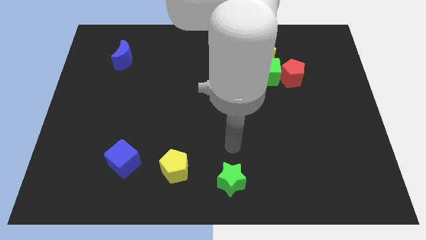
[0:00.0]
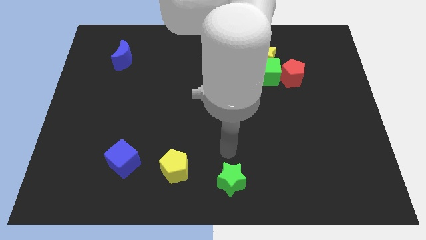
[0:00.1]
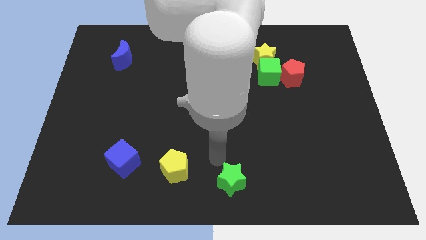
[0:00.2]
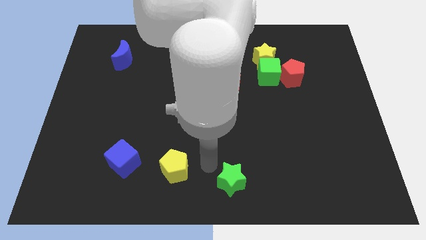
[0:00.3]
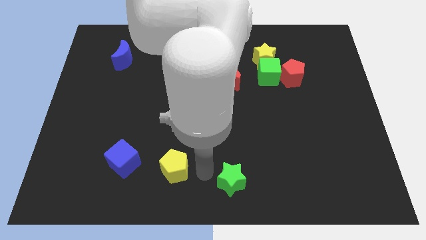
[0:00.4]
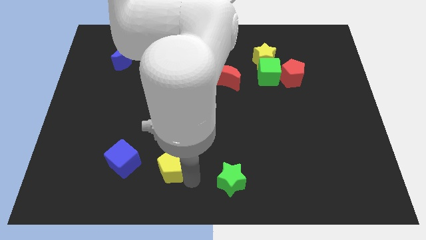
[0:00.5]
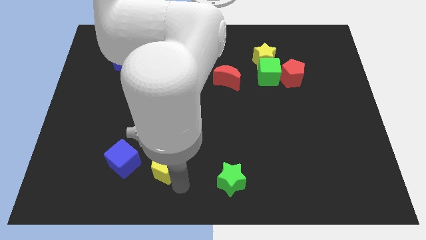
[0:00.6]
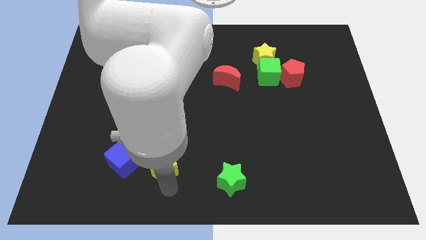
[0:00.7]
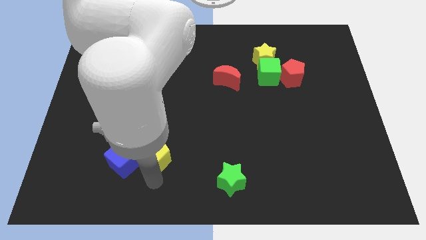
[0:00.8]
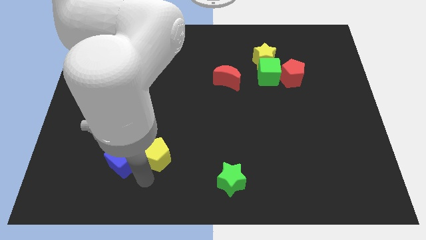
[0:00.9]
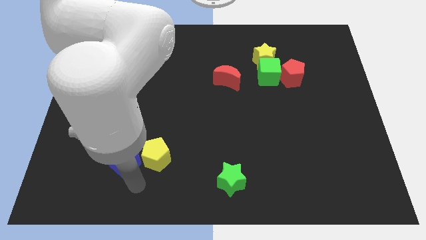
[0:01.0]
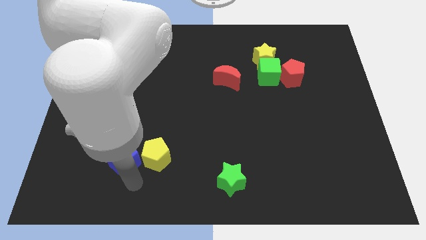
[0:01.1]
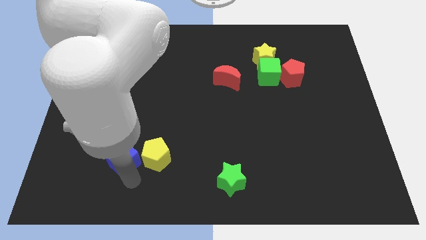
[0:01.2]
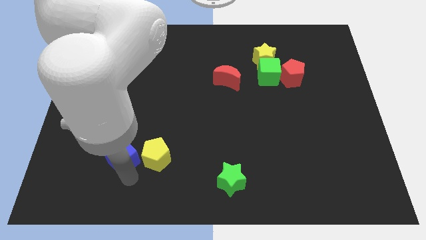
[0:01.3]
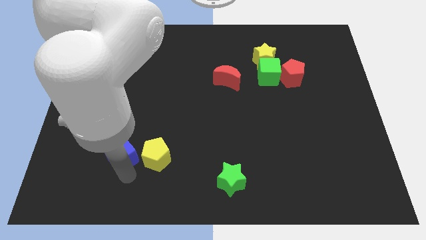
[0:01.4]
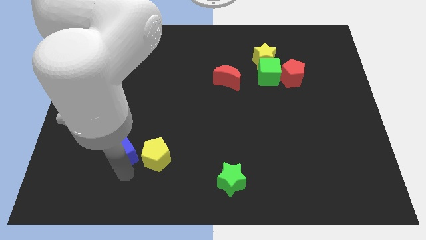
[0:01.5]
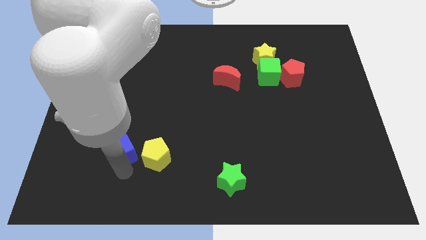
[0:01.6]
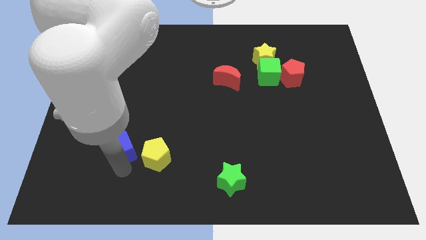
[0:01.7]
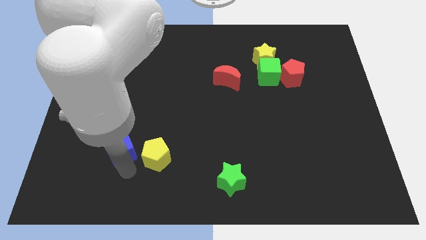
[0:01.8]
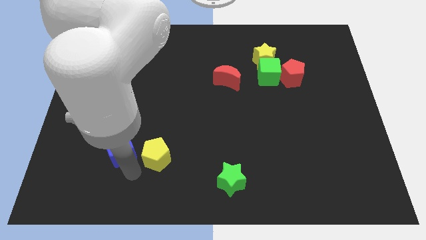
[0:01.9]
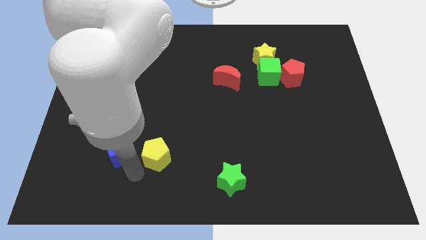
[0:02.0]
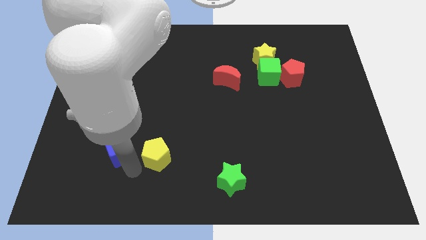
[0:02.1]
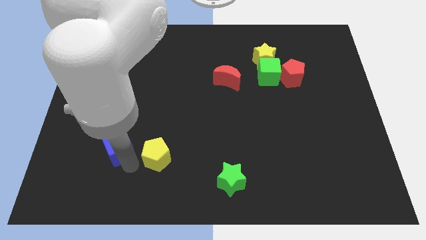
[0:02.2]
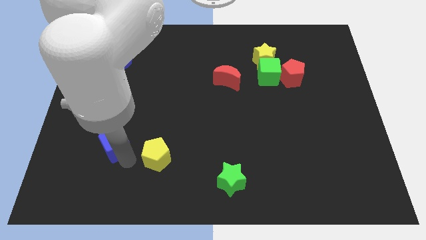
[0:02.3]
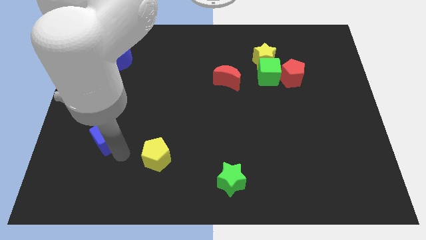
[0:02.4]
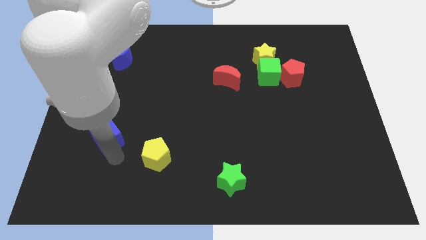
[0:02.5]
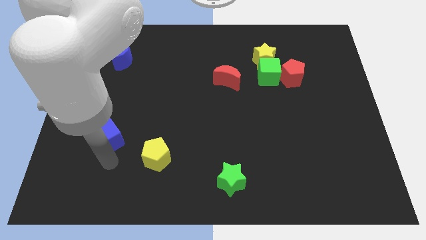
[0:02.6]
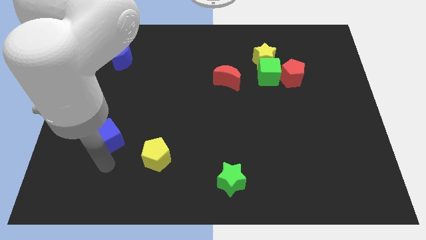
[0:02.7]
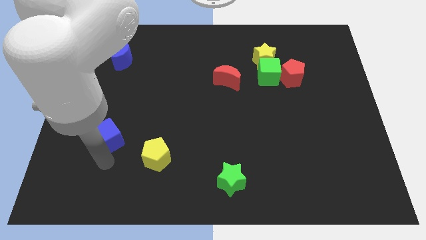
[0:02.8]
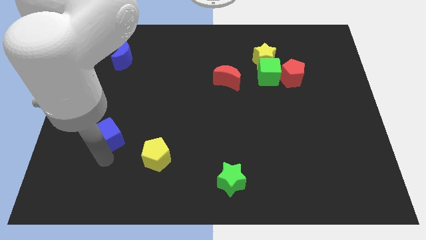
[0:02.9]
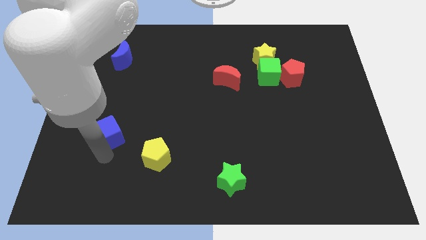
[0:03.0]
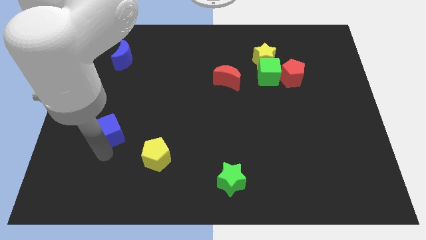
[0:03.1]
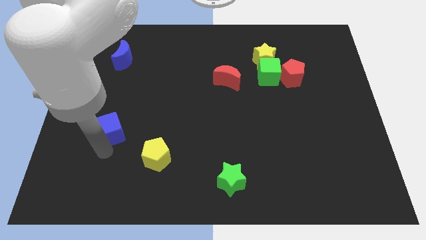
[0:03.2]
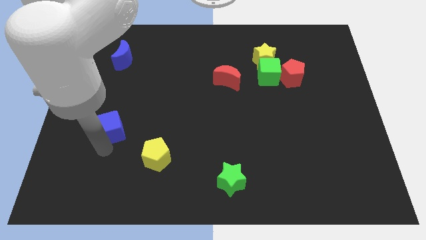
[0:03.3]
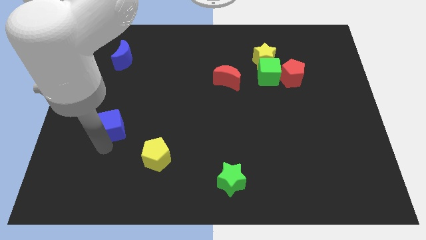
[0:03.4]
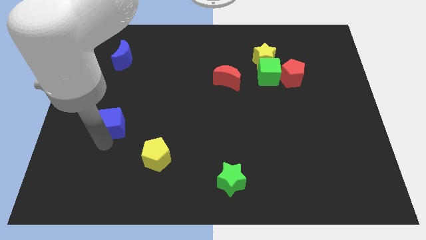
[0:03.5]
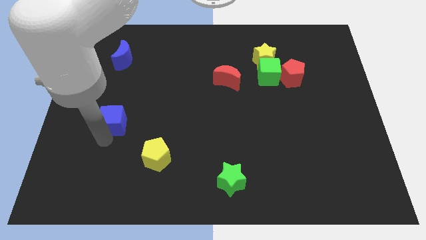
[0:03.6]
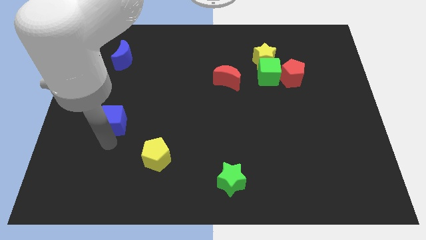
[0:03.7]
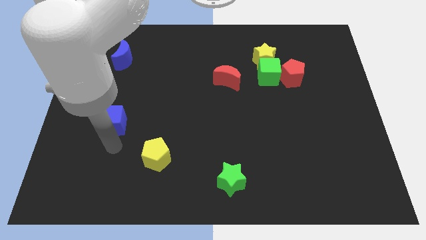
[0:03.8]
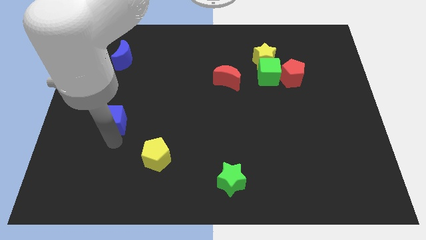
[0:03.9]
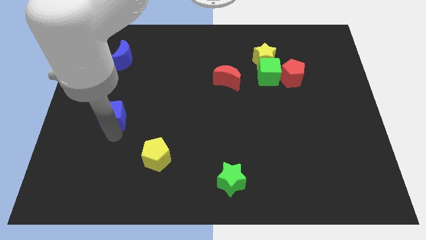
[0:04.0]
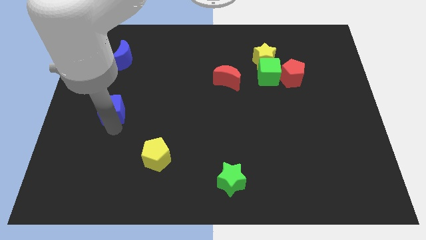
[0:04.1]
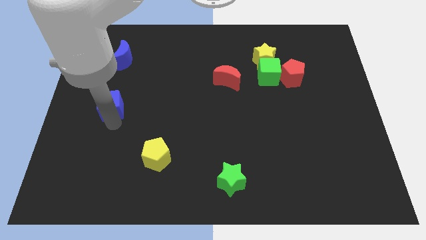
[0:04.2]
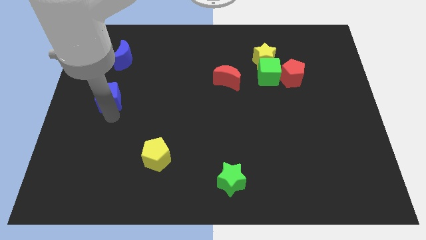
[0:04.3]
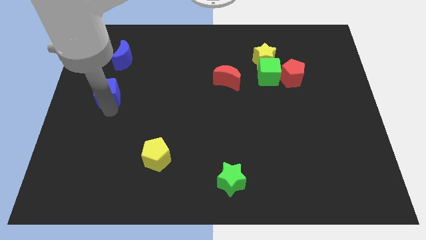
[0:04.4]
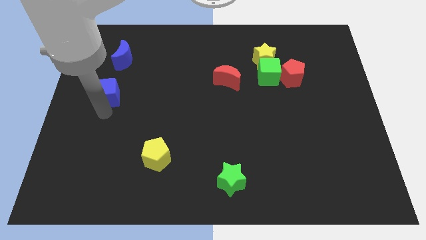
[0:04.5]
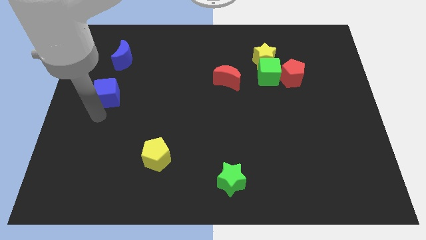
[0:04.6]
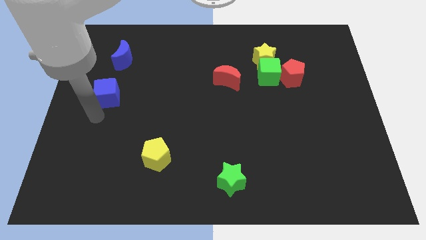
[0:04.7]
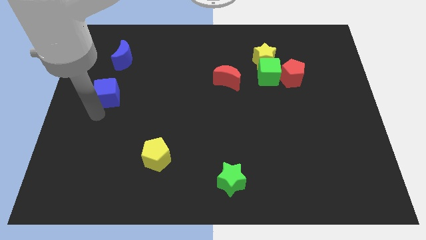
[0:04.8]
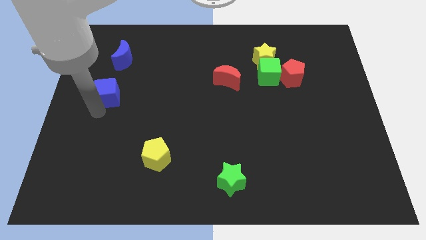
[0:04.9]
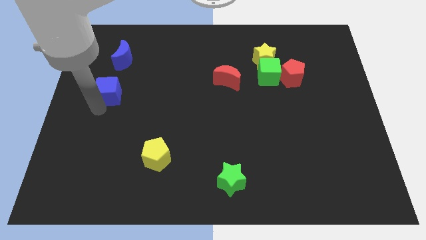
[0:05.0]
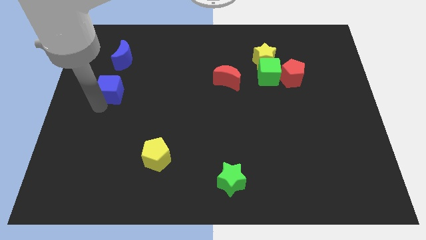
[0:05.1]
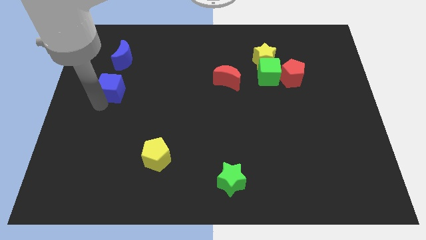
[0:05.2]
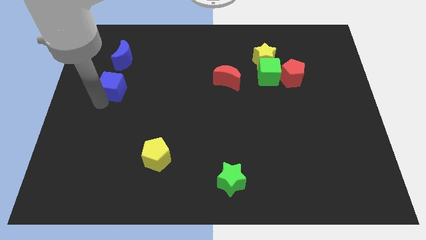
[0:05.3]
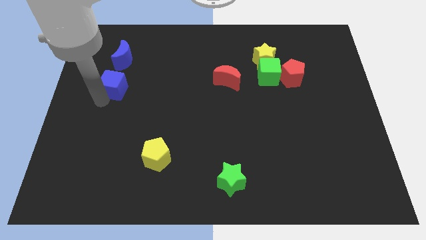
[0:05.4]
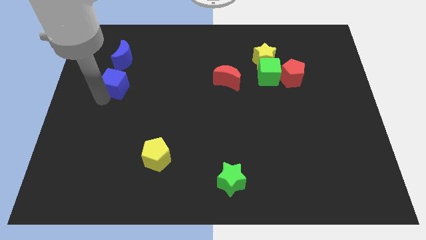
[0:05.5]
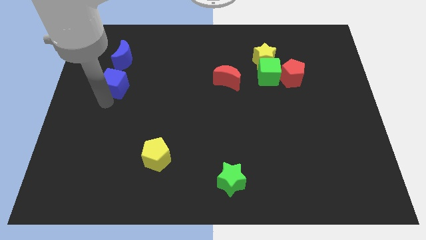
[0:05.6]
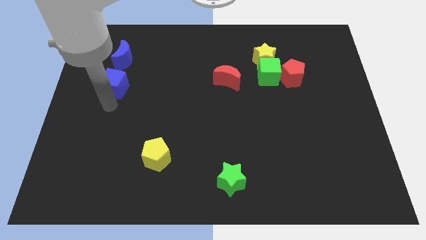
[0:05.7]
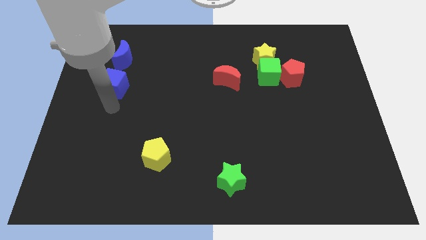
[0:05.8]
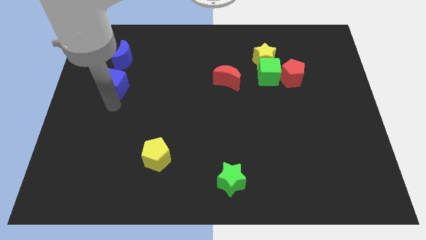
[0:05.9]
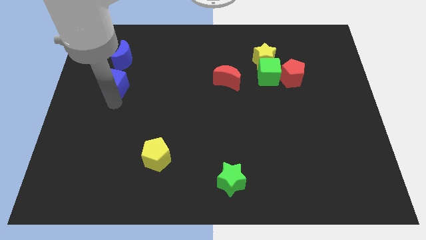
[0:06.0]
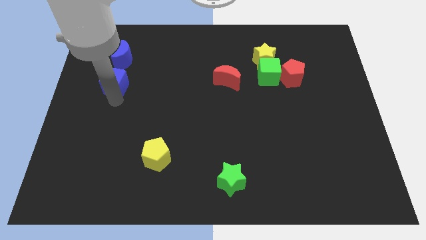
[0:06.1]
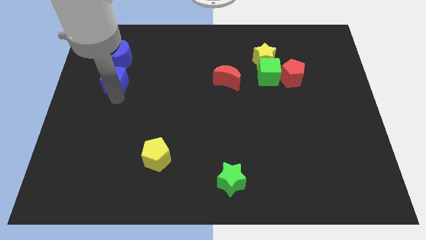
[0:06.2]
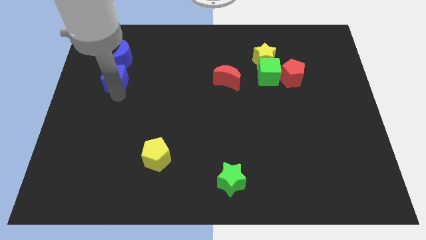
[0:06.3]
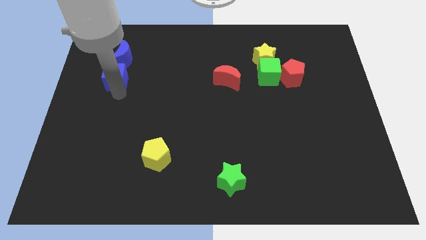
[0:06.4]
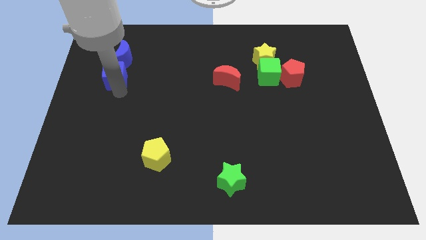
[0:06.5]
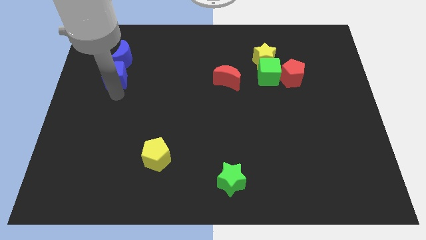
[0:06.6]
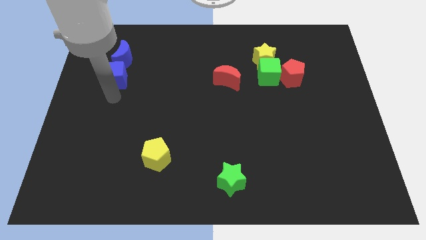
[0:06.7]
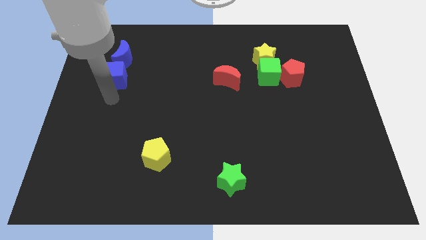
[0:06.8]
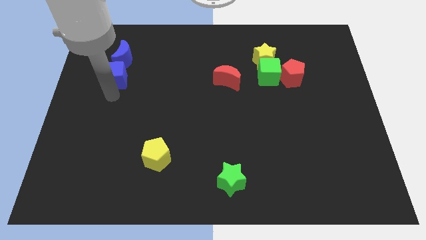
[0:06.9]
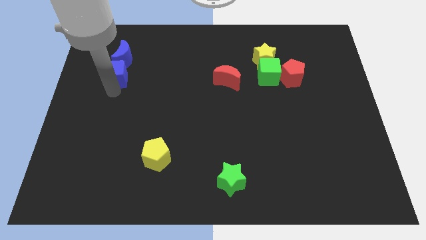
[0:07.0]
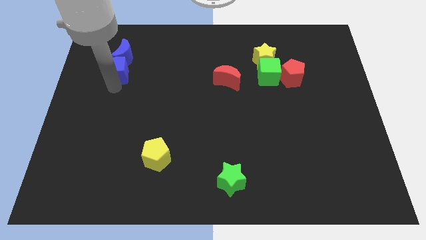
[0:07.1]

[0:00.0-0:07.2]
push the blue cube next to the blue moon

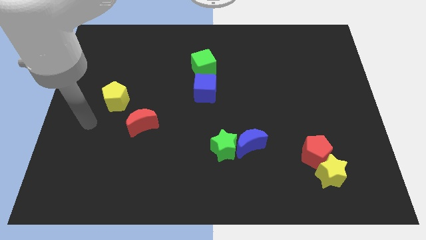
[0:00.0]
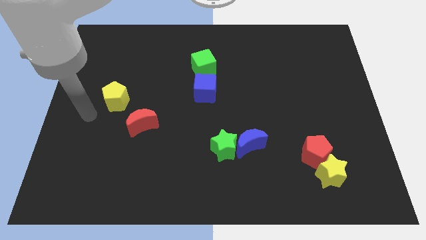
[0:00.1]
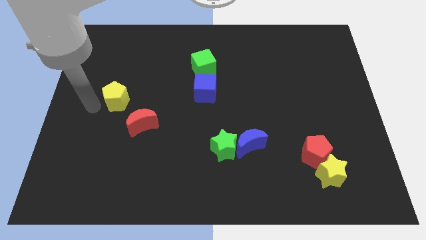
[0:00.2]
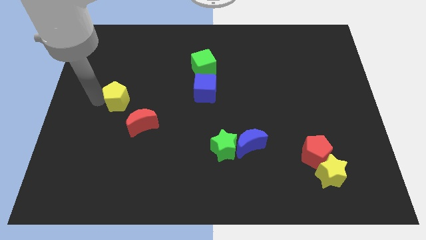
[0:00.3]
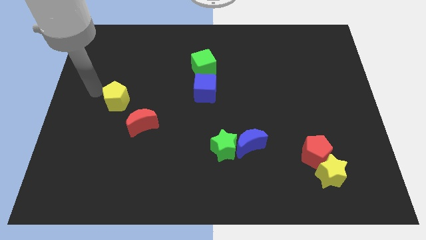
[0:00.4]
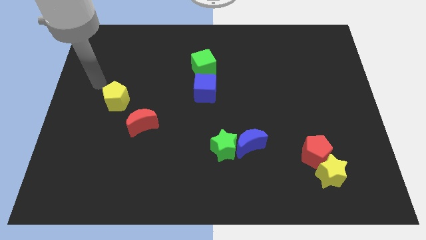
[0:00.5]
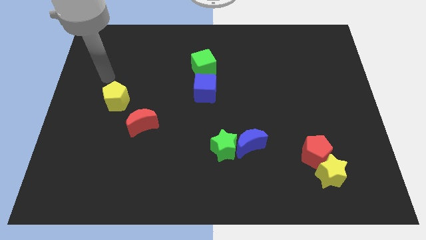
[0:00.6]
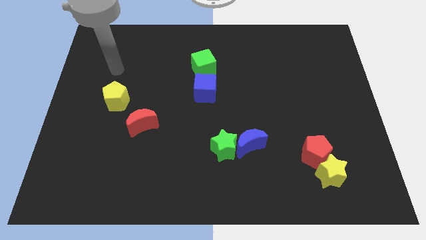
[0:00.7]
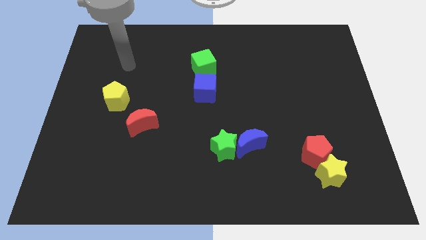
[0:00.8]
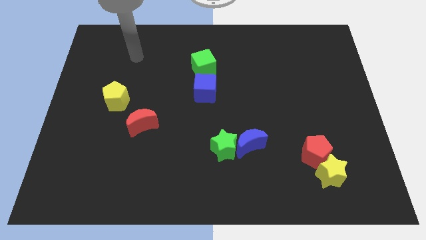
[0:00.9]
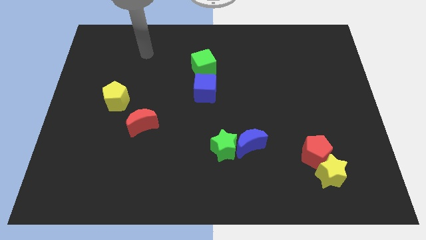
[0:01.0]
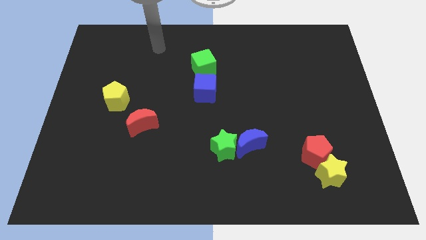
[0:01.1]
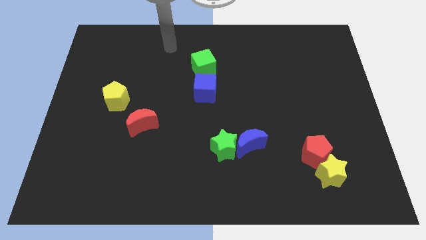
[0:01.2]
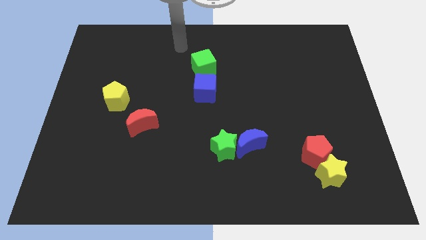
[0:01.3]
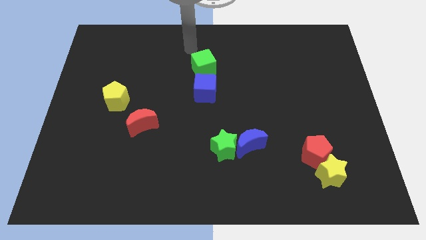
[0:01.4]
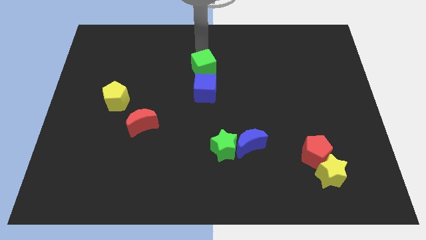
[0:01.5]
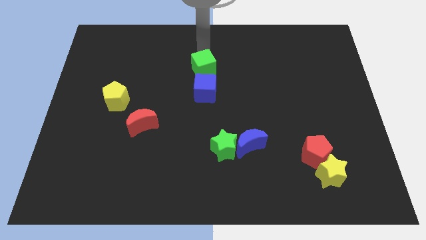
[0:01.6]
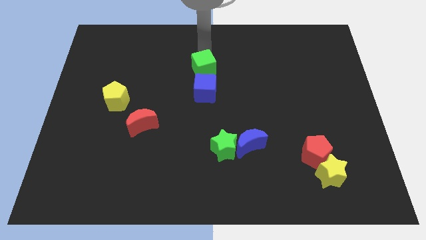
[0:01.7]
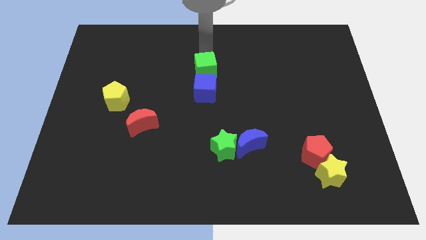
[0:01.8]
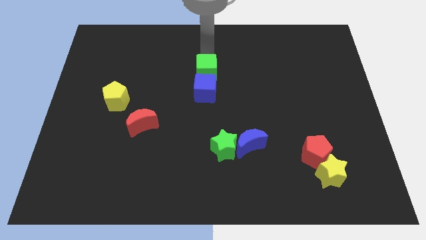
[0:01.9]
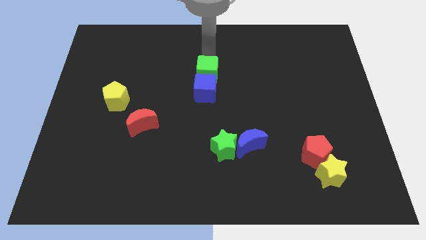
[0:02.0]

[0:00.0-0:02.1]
put the green cube to the blue cube
